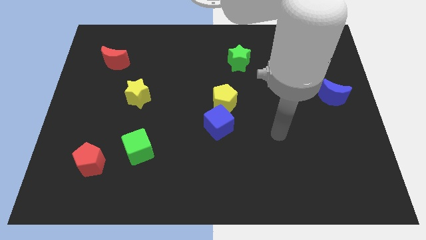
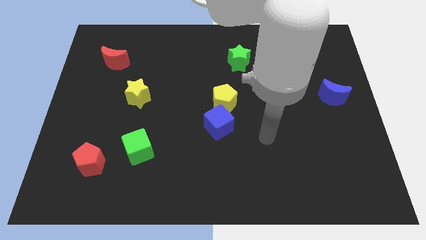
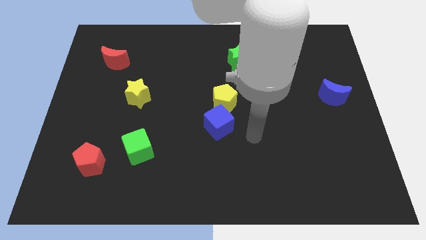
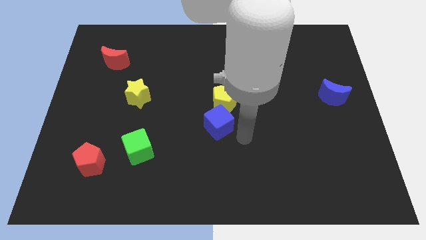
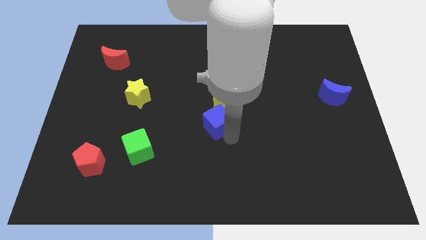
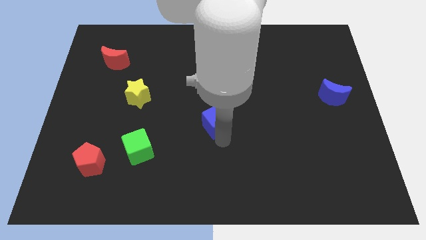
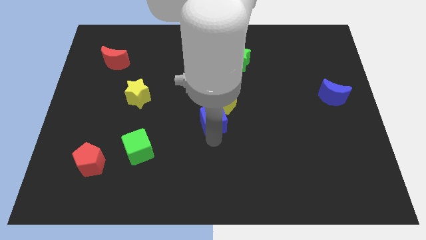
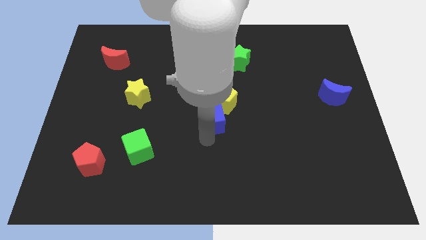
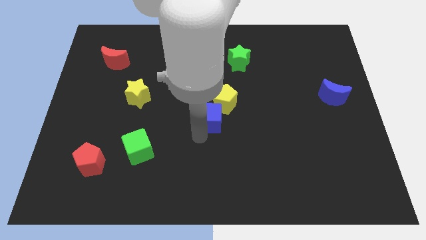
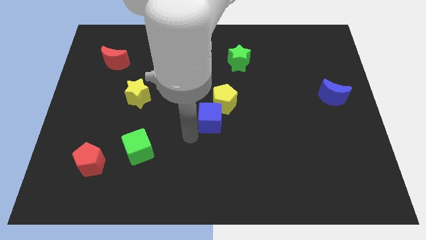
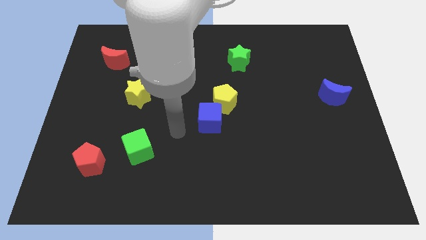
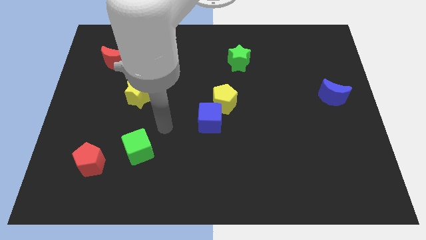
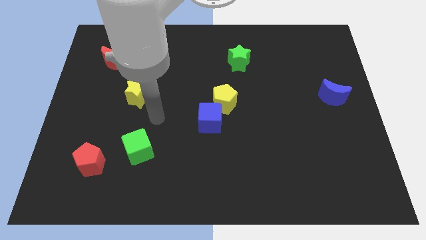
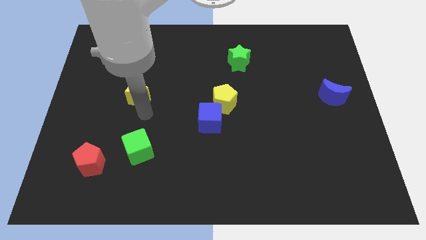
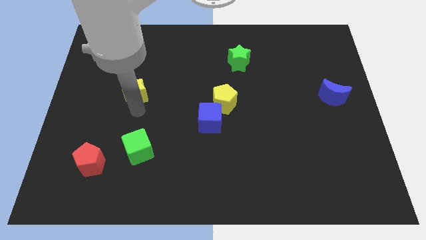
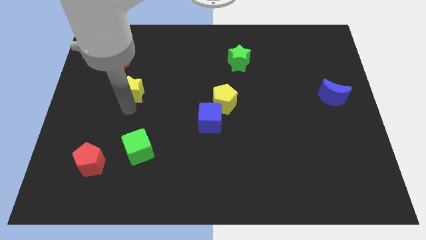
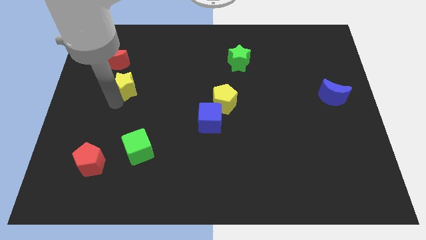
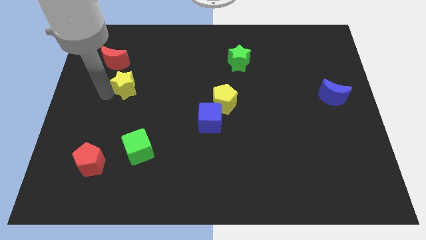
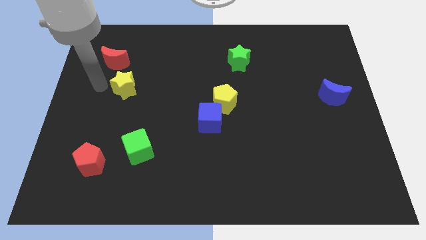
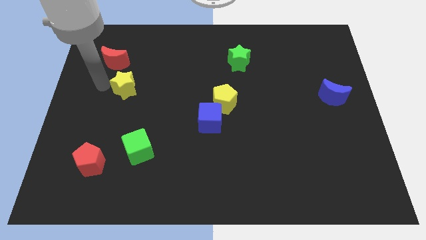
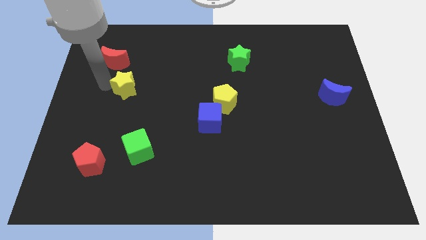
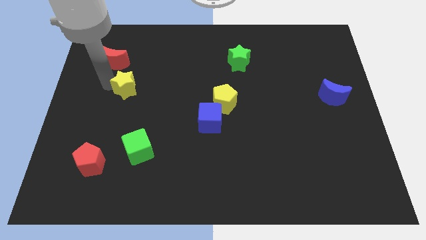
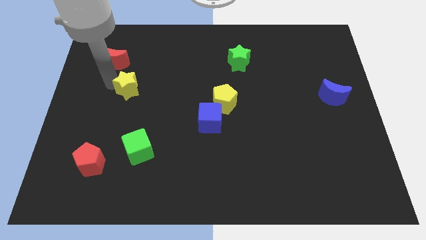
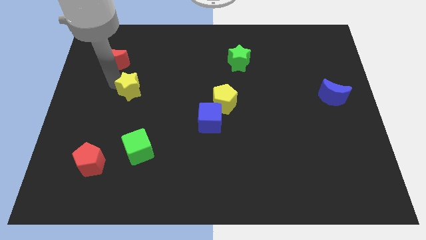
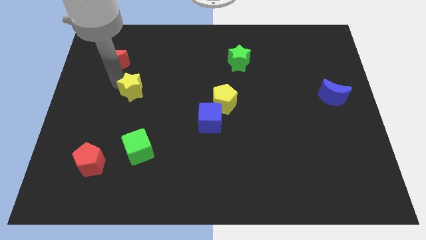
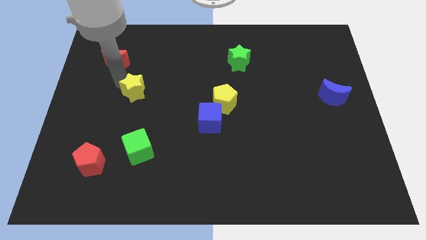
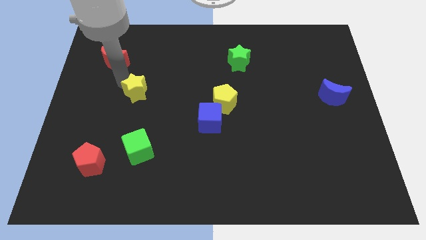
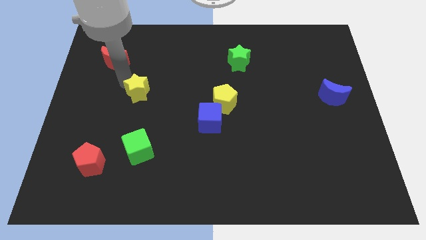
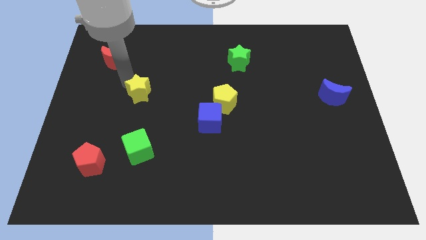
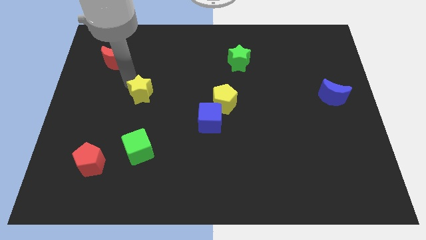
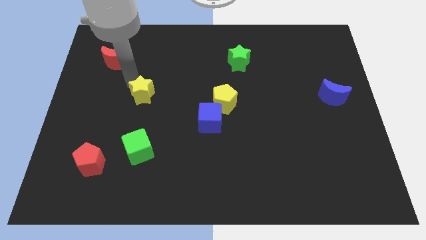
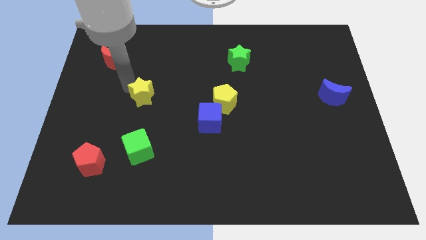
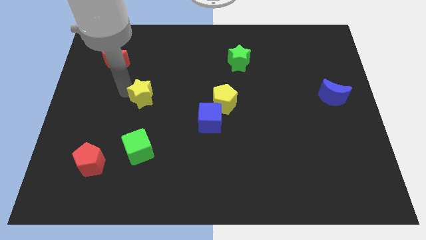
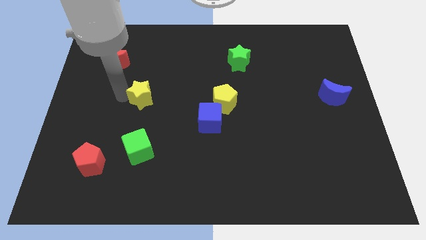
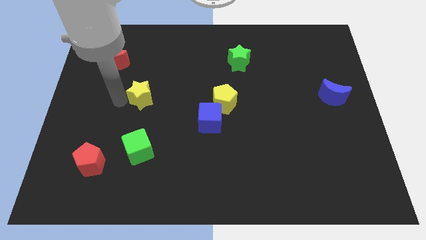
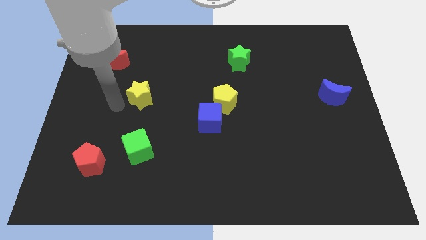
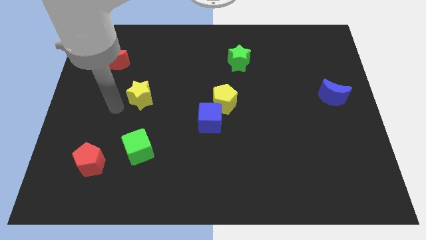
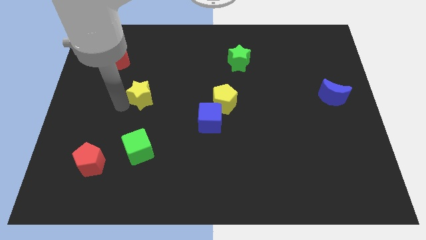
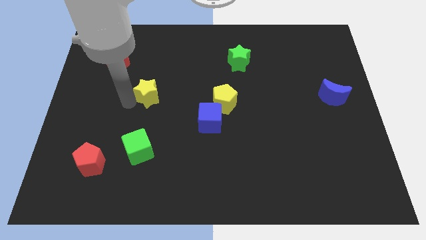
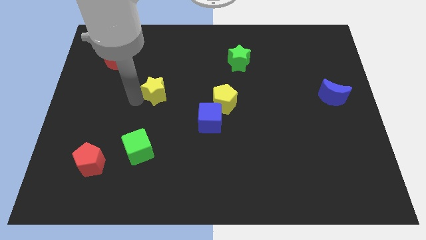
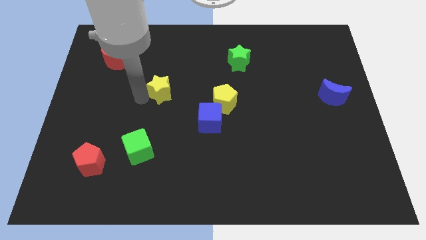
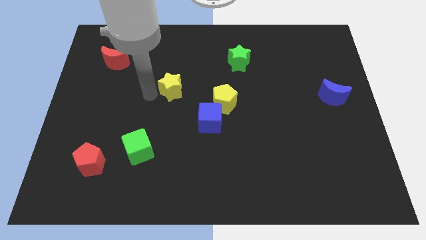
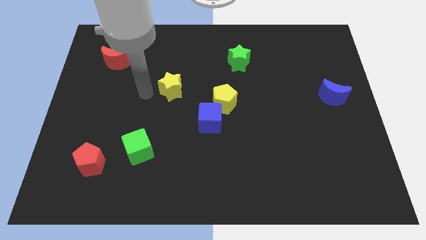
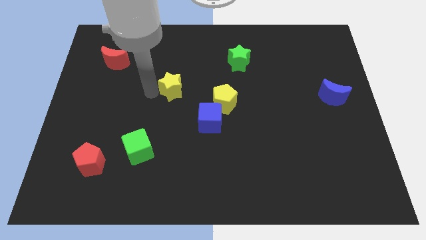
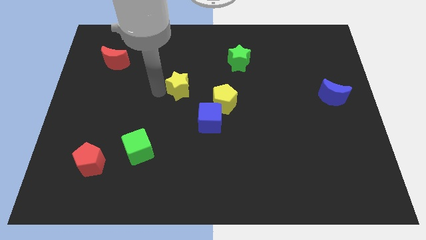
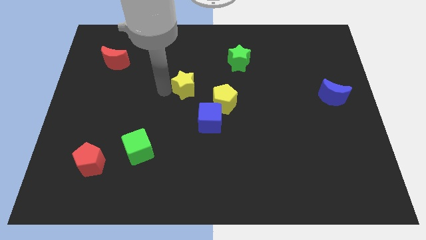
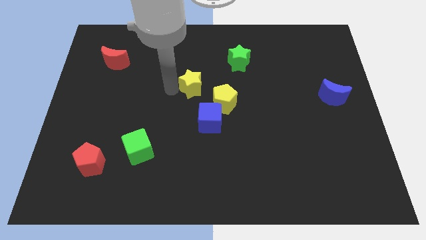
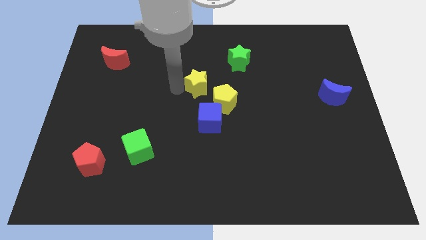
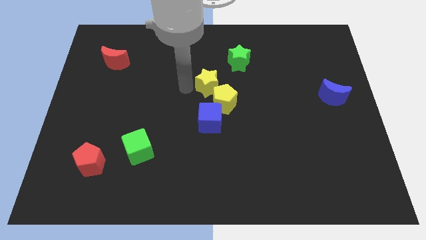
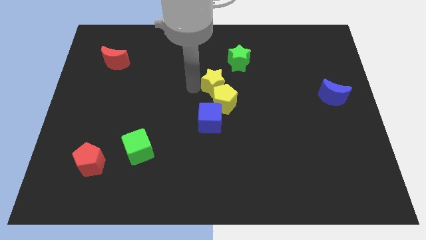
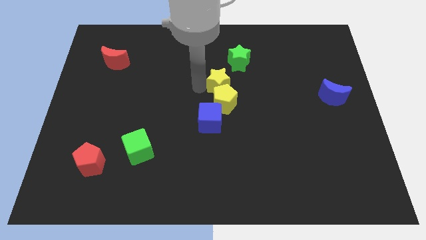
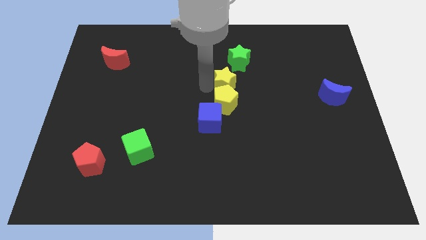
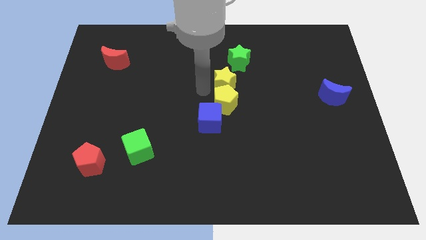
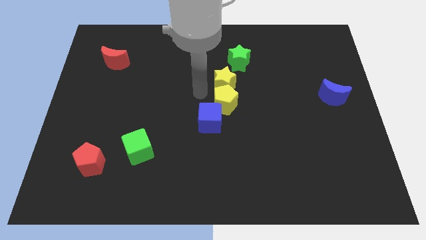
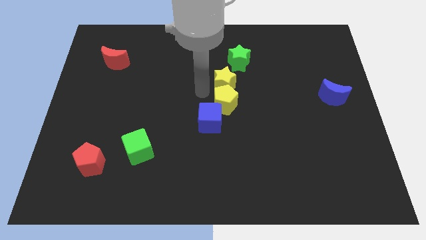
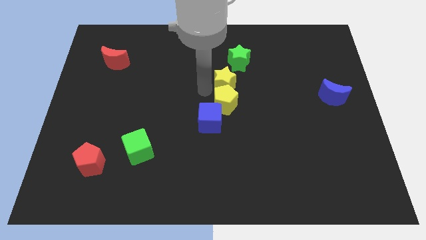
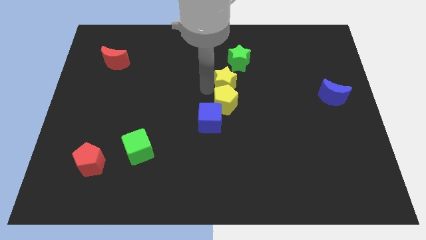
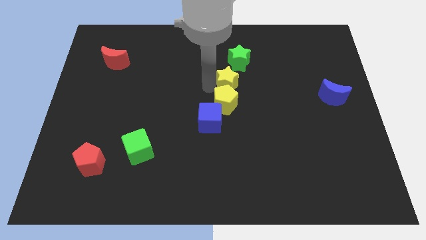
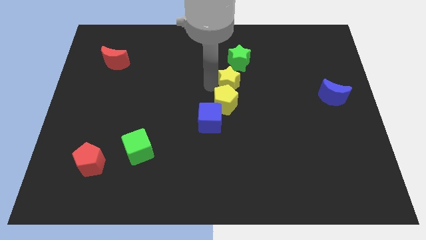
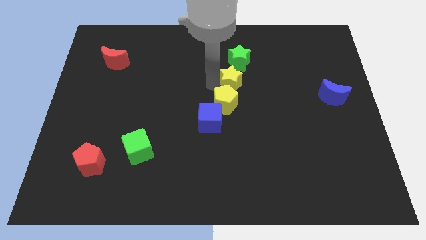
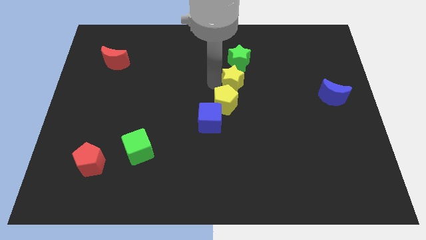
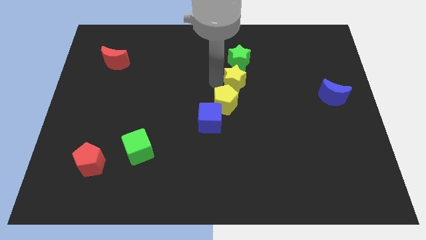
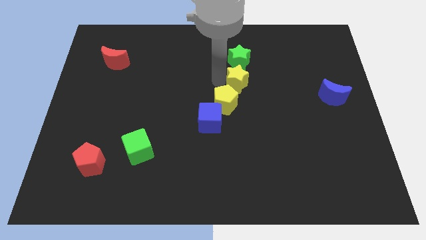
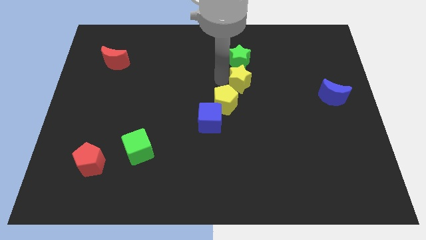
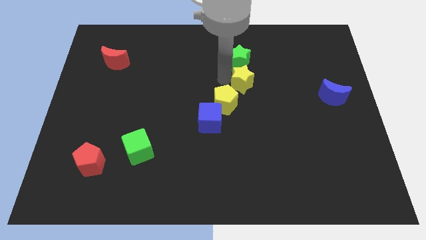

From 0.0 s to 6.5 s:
slide the yellow star diagonally down and to the right of the green star
